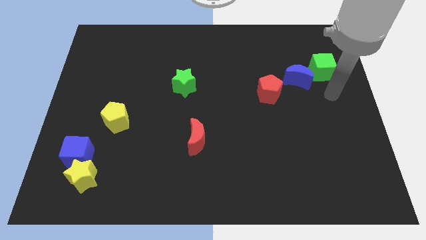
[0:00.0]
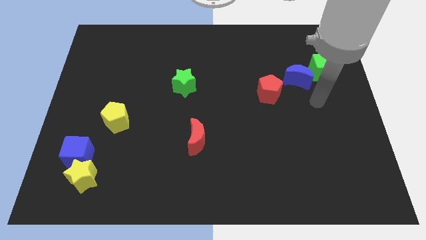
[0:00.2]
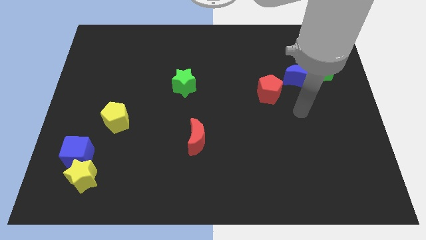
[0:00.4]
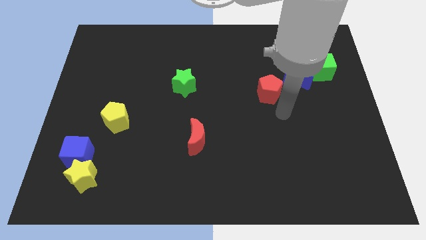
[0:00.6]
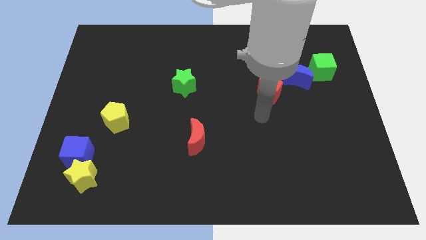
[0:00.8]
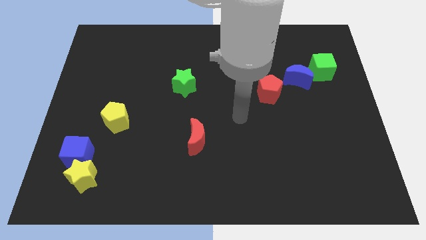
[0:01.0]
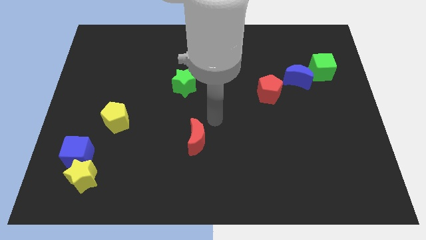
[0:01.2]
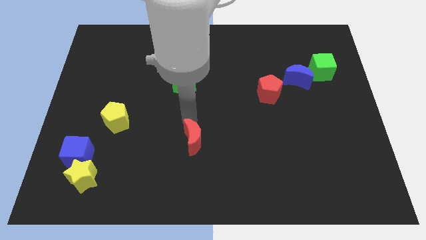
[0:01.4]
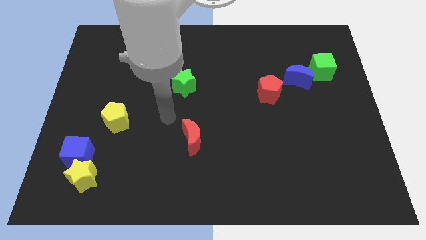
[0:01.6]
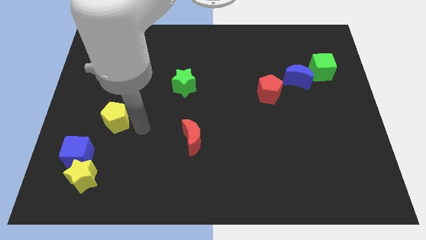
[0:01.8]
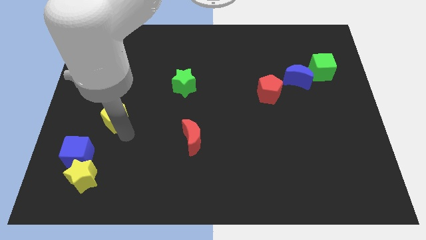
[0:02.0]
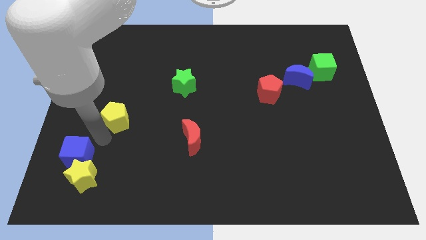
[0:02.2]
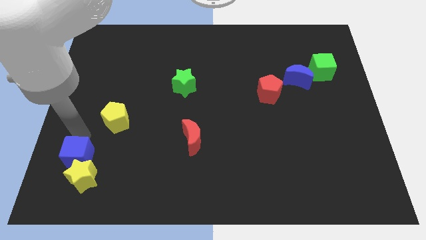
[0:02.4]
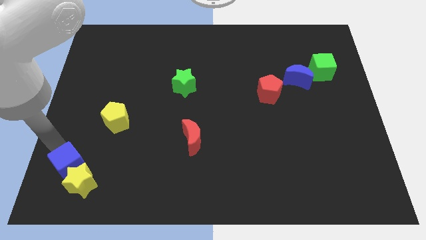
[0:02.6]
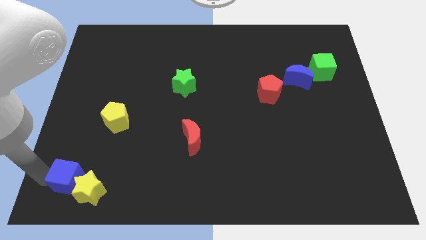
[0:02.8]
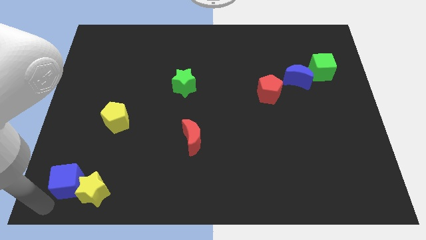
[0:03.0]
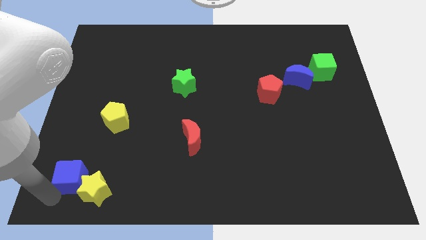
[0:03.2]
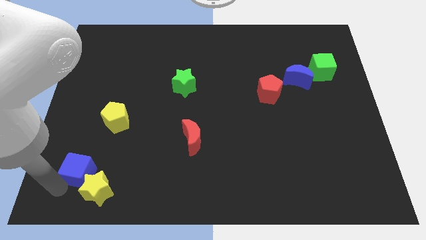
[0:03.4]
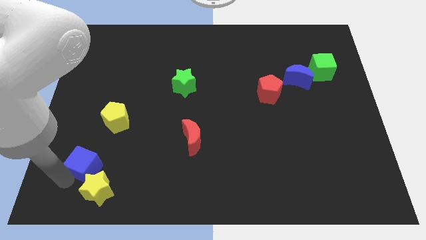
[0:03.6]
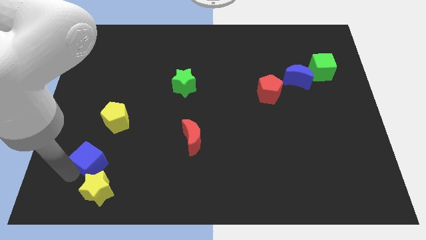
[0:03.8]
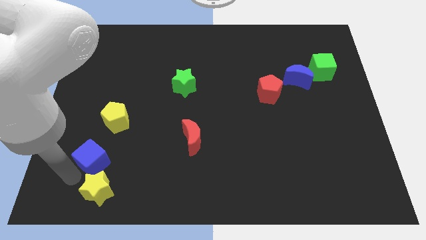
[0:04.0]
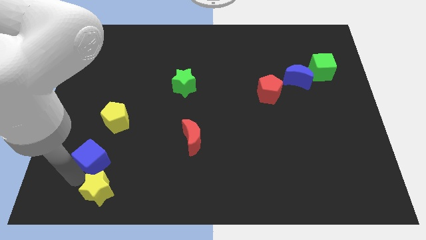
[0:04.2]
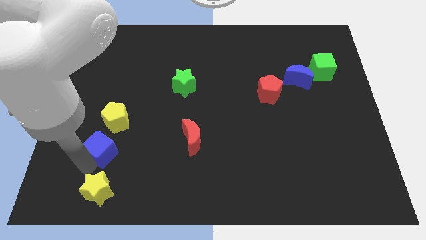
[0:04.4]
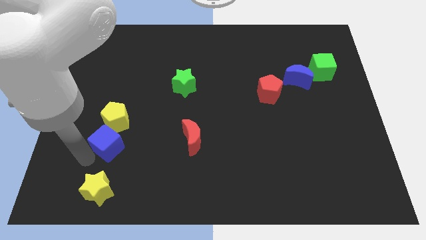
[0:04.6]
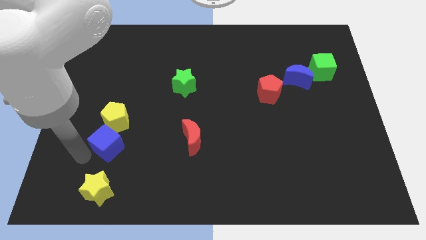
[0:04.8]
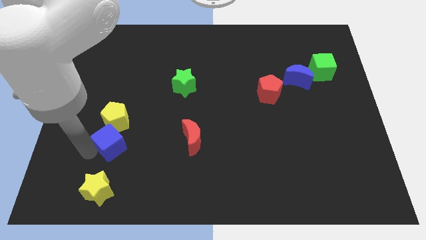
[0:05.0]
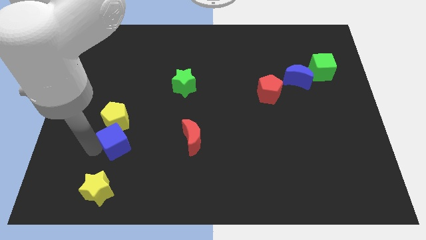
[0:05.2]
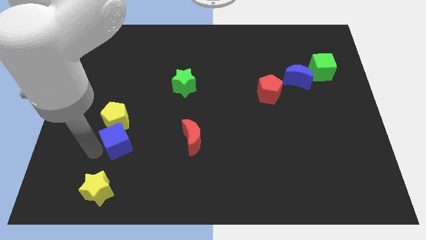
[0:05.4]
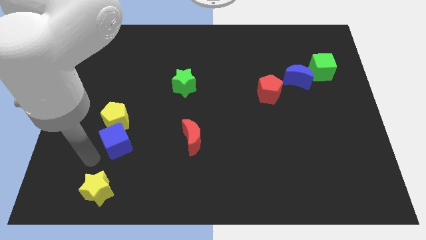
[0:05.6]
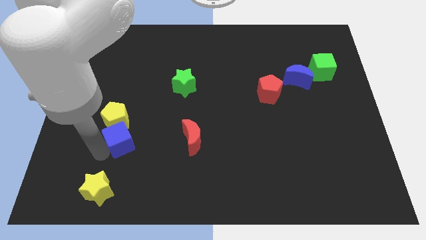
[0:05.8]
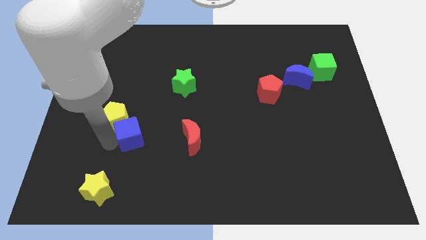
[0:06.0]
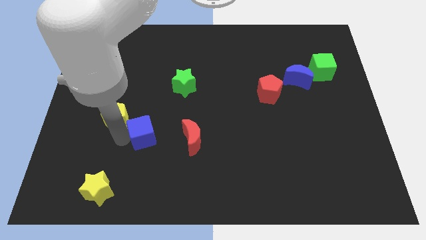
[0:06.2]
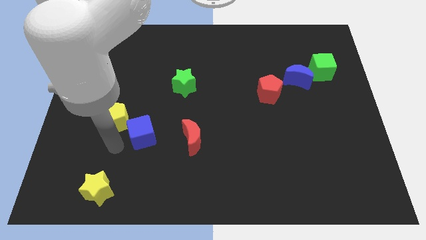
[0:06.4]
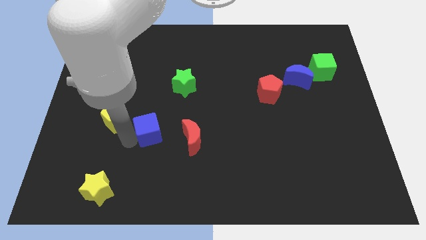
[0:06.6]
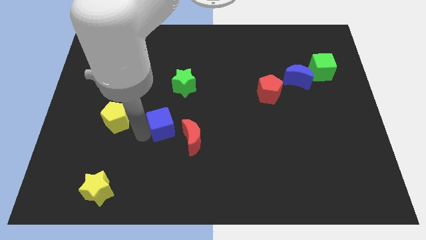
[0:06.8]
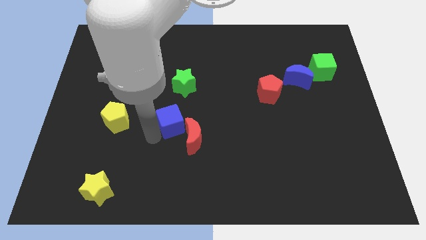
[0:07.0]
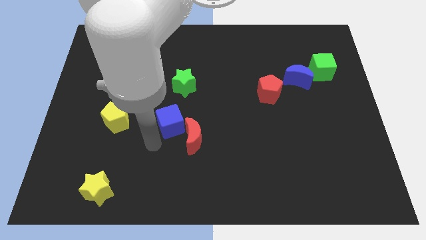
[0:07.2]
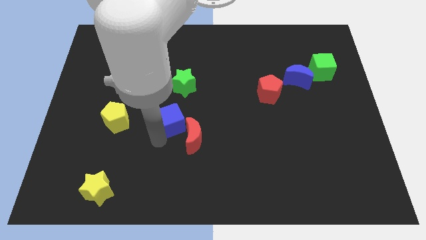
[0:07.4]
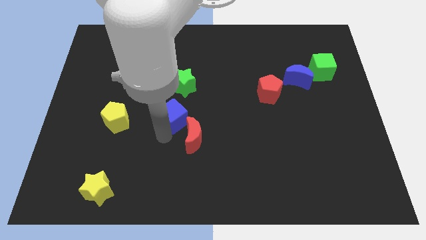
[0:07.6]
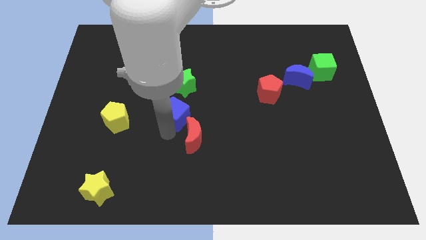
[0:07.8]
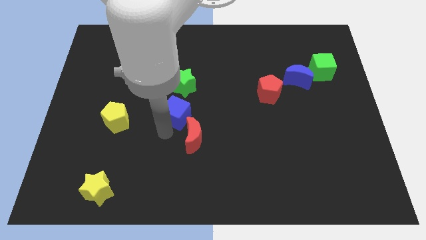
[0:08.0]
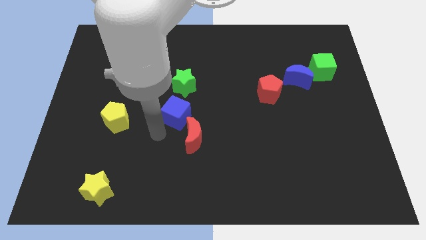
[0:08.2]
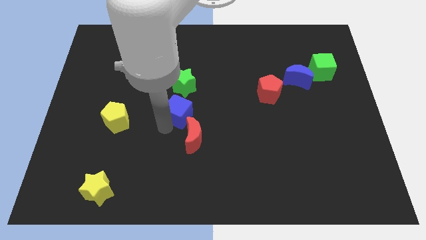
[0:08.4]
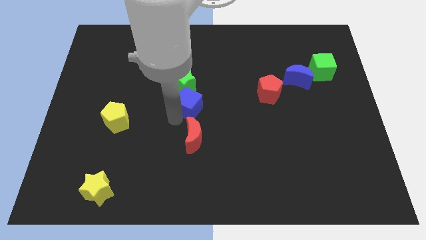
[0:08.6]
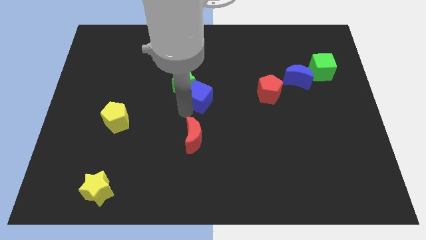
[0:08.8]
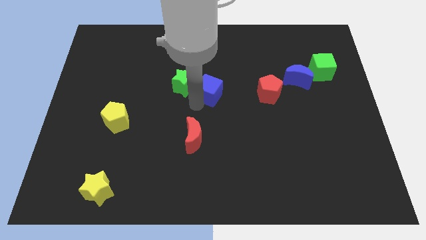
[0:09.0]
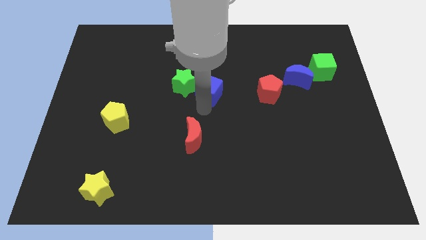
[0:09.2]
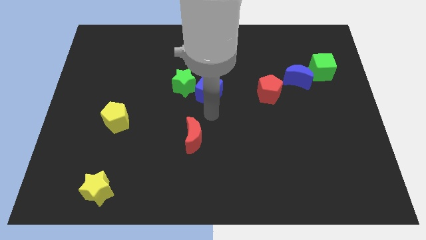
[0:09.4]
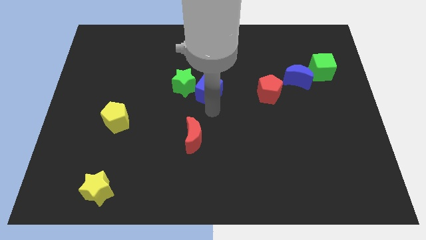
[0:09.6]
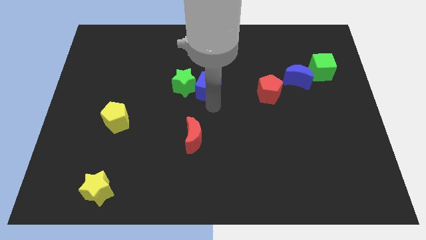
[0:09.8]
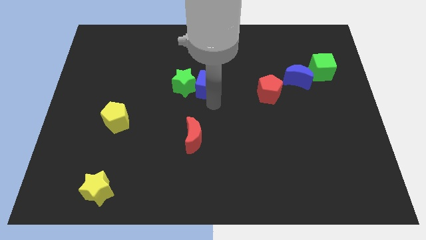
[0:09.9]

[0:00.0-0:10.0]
move the blue cube diagonally up and to the right of the green star

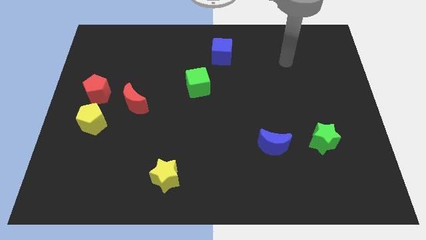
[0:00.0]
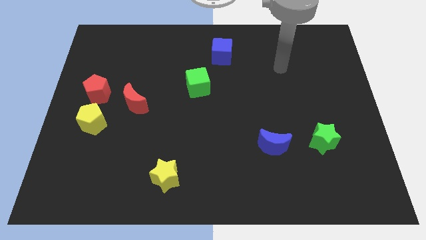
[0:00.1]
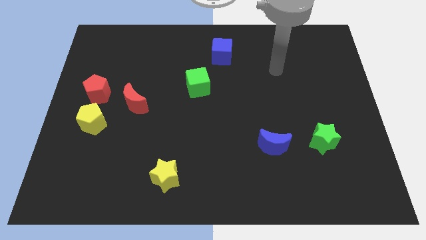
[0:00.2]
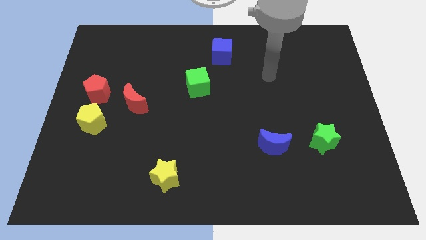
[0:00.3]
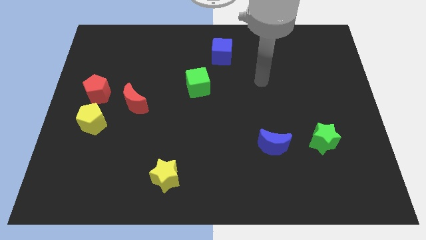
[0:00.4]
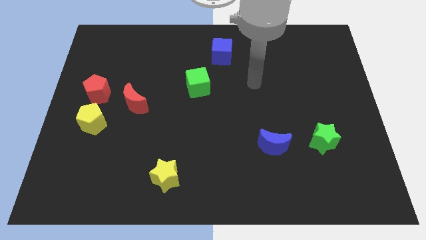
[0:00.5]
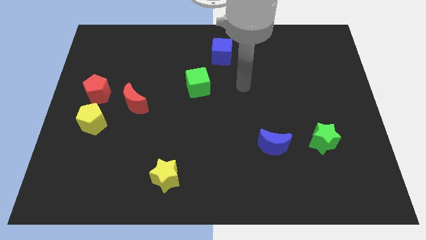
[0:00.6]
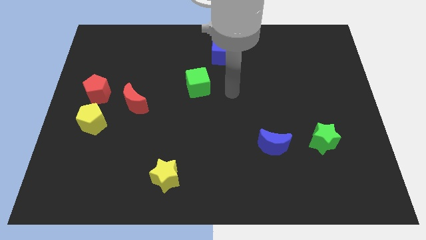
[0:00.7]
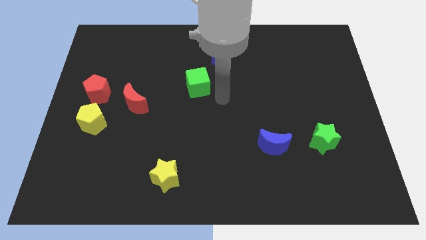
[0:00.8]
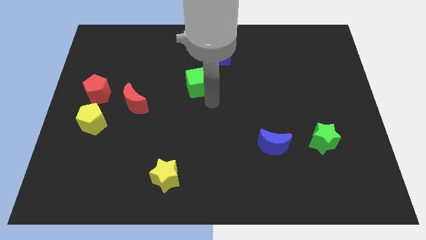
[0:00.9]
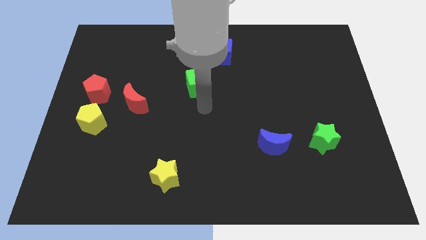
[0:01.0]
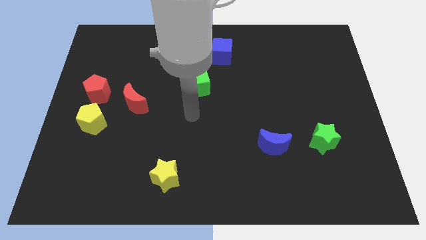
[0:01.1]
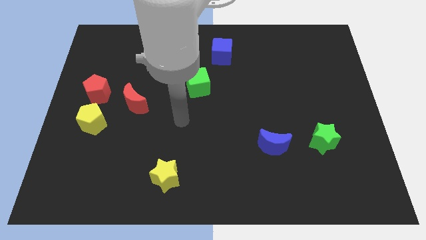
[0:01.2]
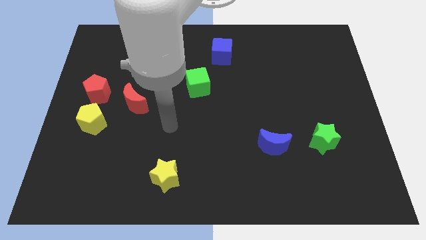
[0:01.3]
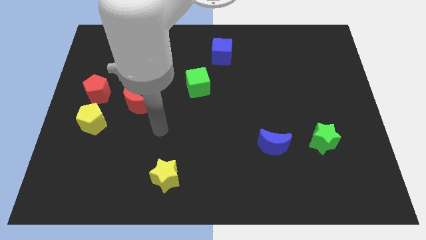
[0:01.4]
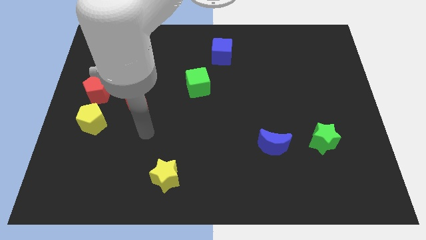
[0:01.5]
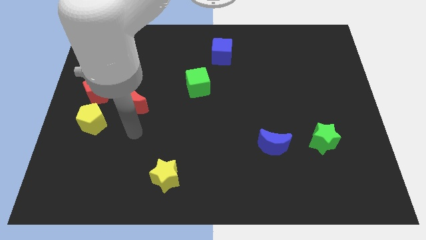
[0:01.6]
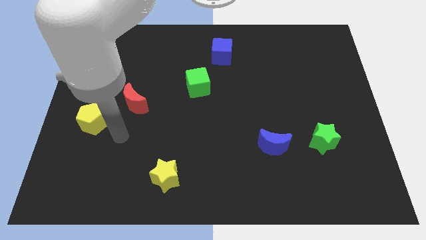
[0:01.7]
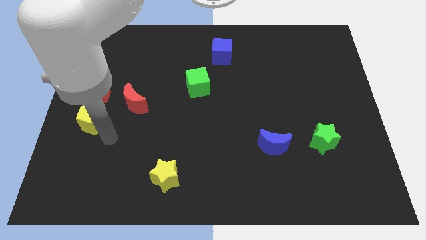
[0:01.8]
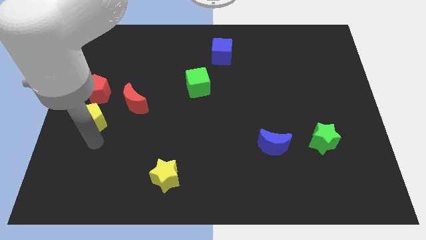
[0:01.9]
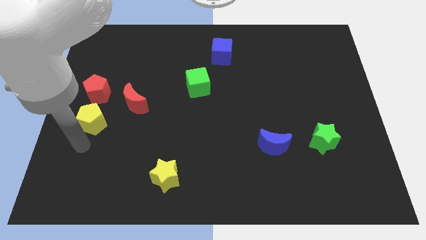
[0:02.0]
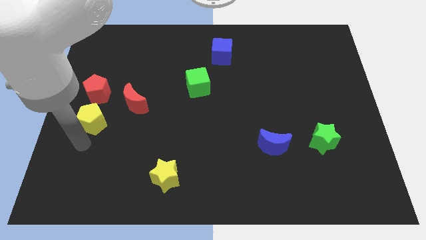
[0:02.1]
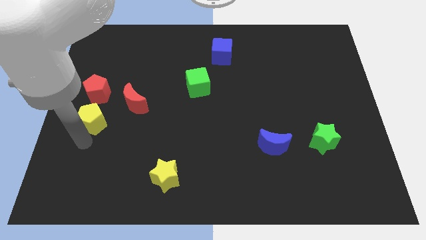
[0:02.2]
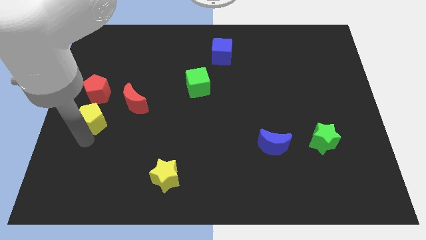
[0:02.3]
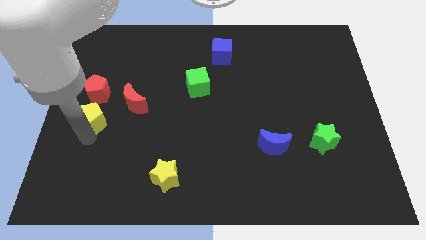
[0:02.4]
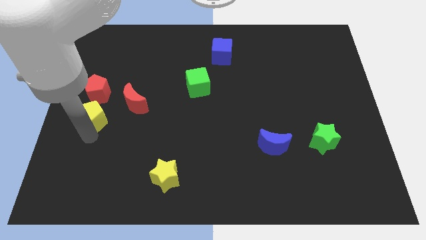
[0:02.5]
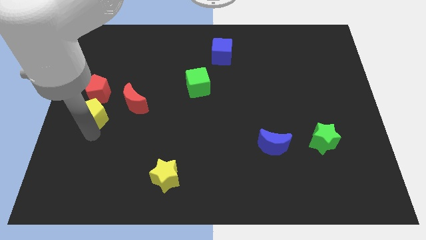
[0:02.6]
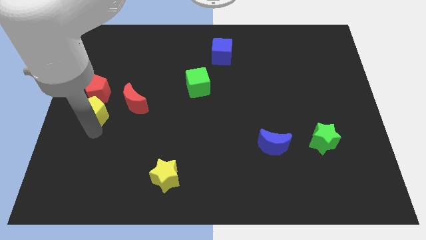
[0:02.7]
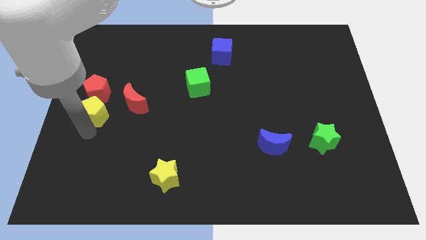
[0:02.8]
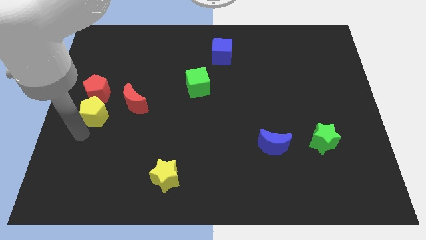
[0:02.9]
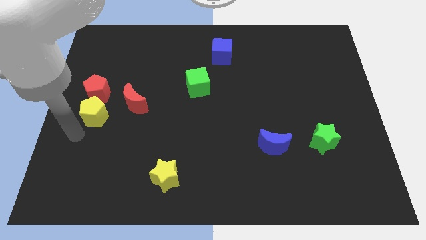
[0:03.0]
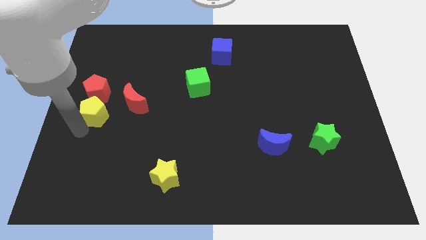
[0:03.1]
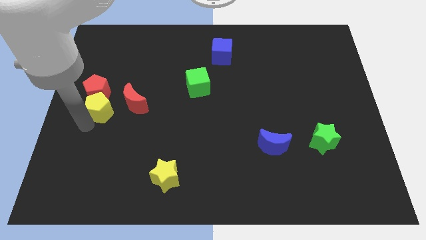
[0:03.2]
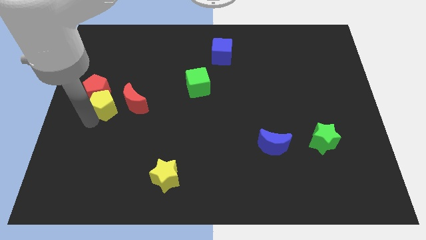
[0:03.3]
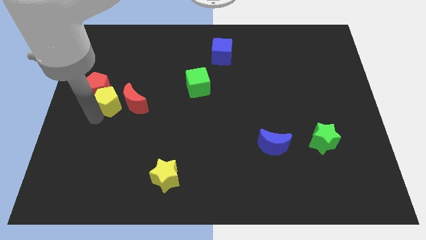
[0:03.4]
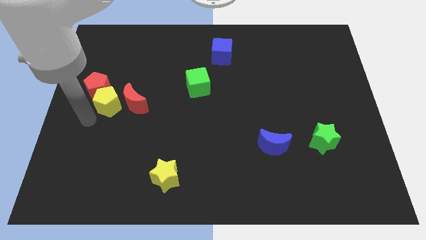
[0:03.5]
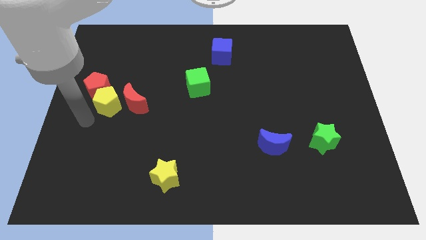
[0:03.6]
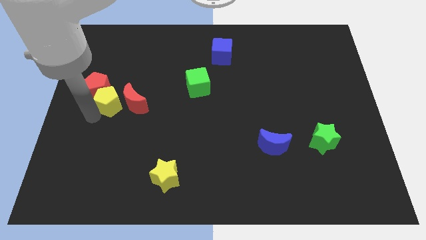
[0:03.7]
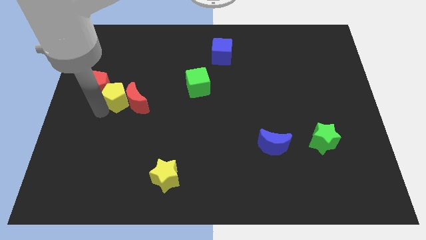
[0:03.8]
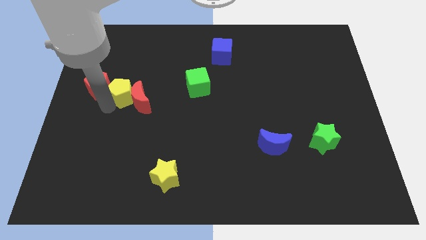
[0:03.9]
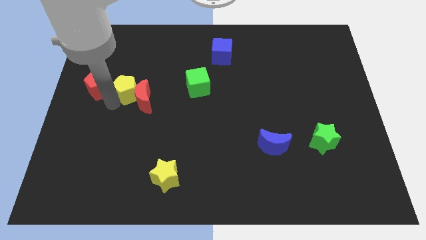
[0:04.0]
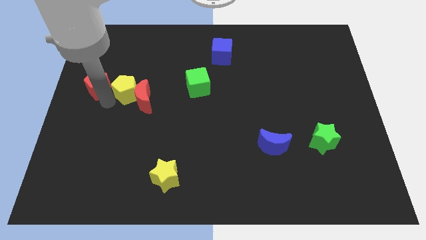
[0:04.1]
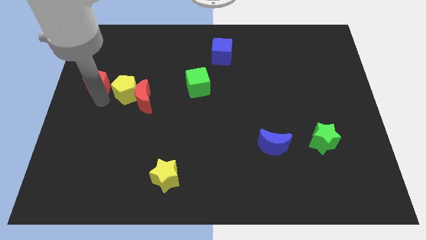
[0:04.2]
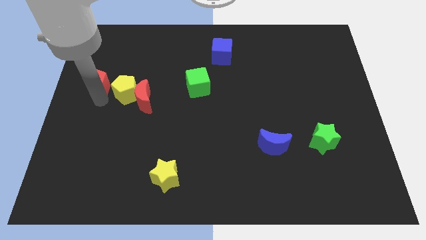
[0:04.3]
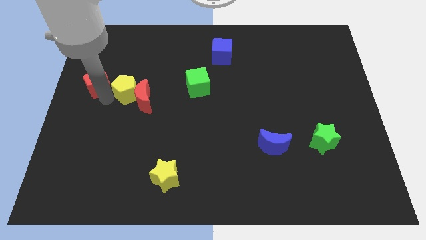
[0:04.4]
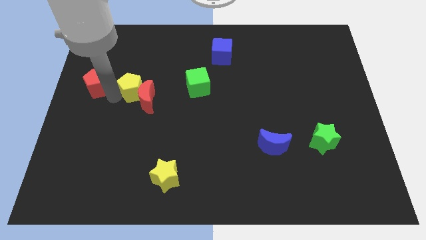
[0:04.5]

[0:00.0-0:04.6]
push the yellow pentagon left of the green cube
